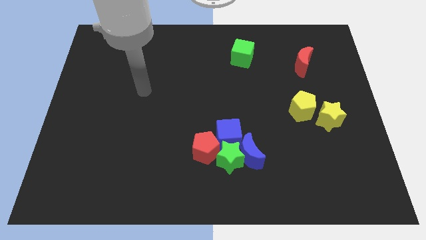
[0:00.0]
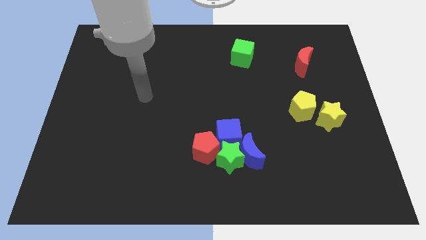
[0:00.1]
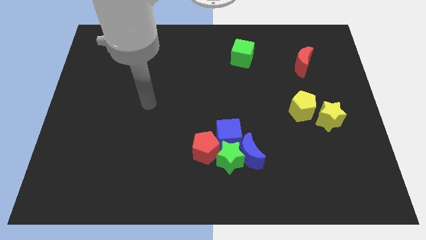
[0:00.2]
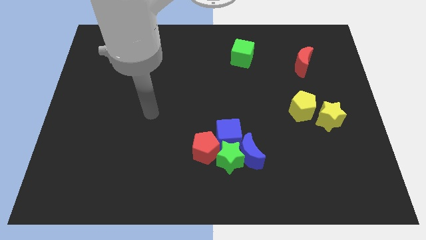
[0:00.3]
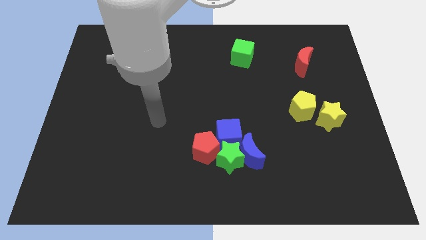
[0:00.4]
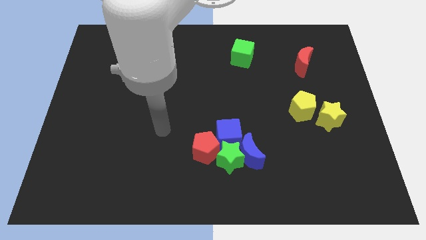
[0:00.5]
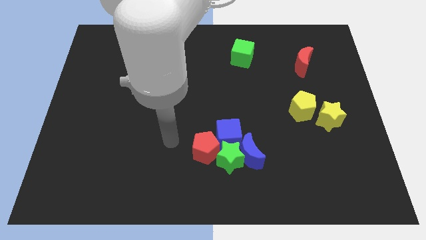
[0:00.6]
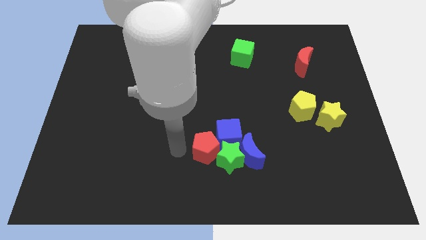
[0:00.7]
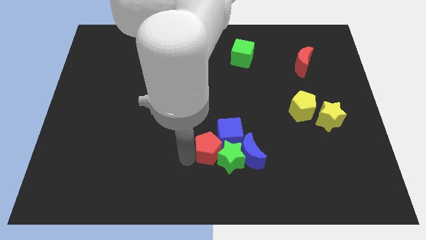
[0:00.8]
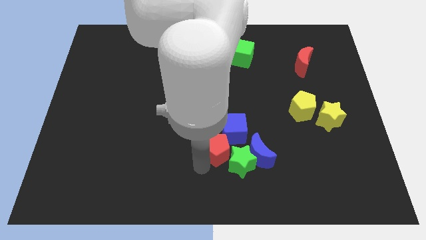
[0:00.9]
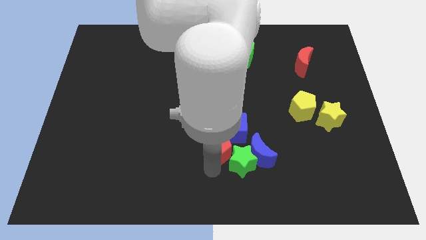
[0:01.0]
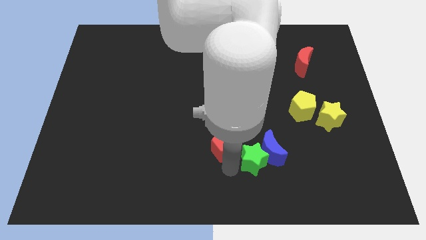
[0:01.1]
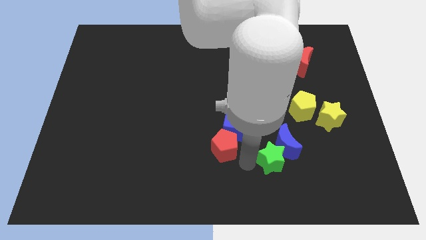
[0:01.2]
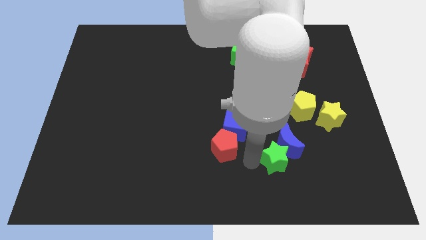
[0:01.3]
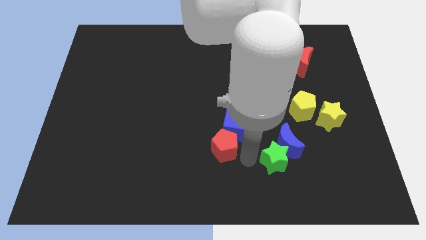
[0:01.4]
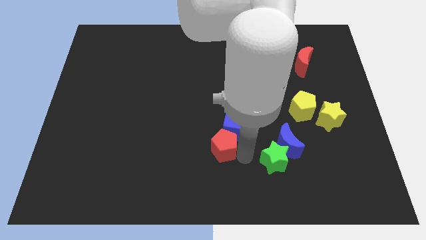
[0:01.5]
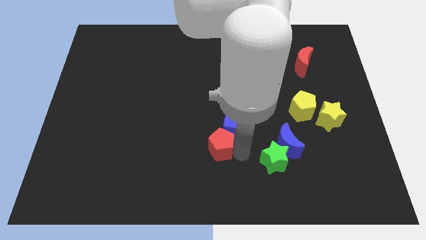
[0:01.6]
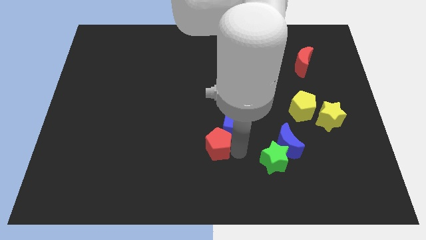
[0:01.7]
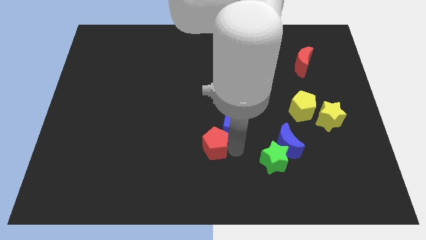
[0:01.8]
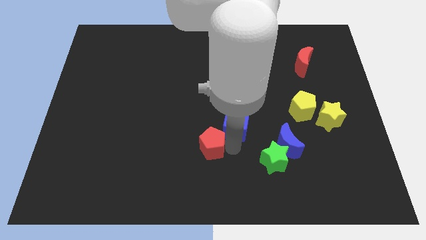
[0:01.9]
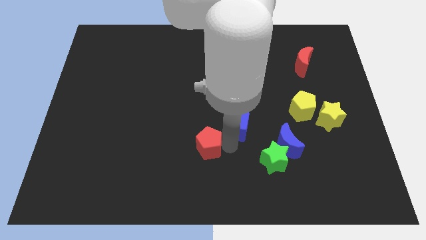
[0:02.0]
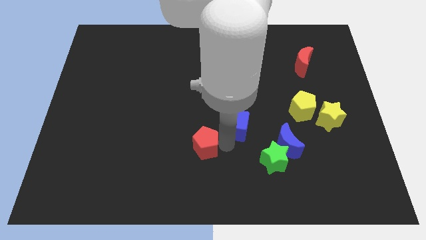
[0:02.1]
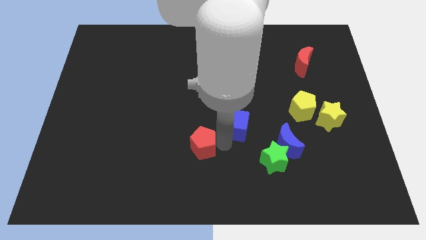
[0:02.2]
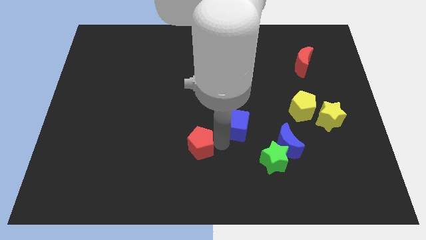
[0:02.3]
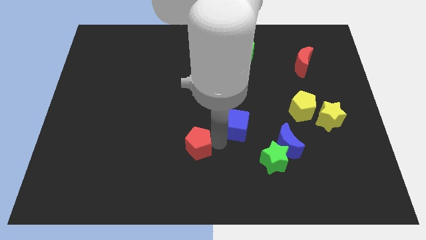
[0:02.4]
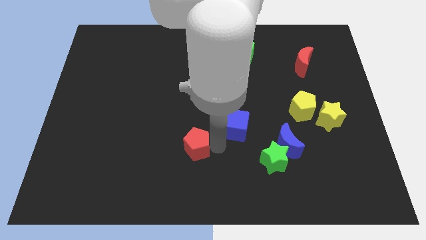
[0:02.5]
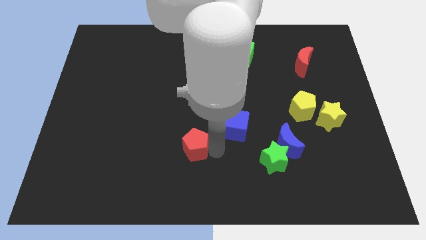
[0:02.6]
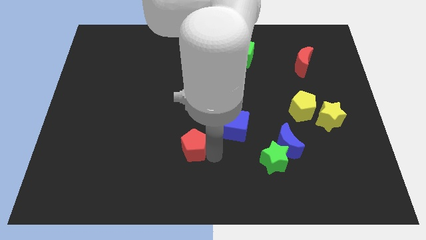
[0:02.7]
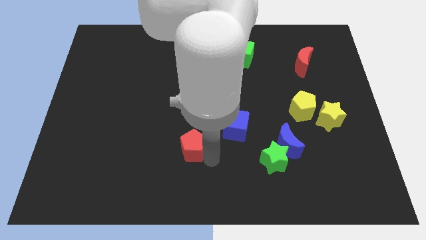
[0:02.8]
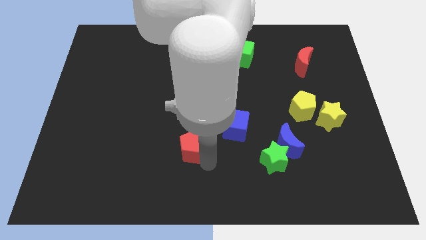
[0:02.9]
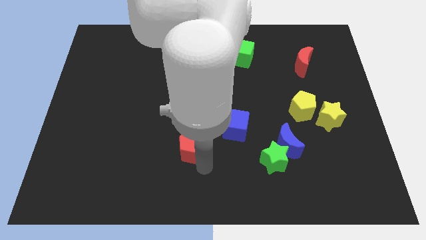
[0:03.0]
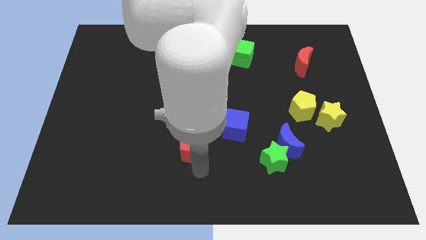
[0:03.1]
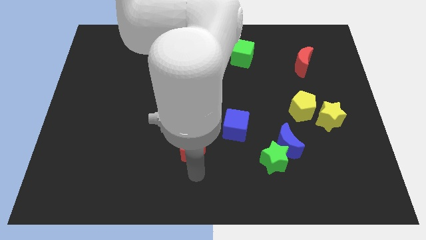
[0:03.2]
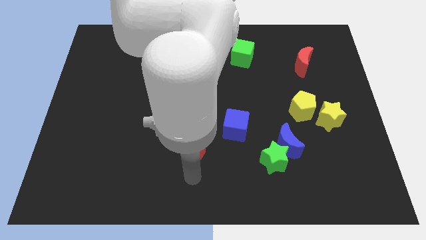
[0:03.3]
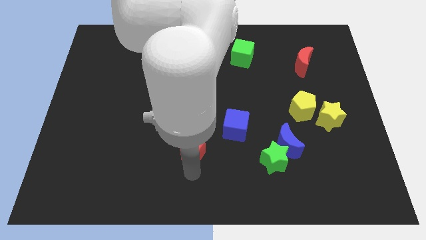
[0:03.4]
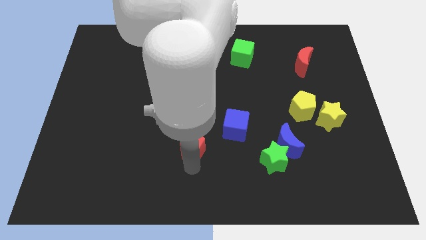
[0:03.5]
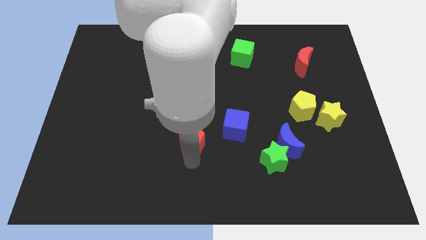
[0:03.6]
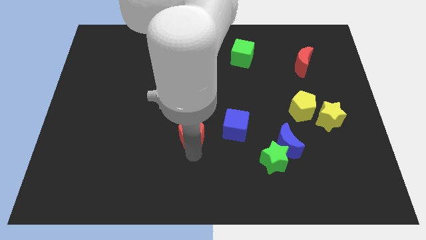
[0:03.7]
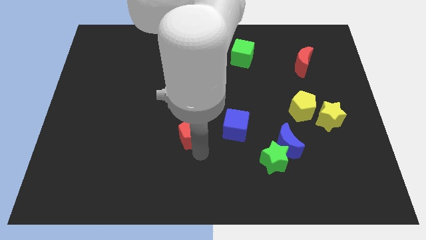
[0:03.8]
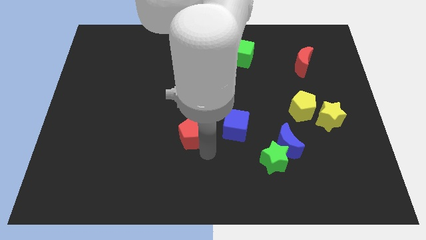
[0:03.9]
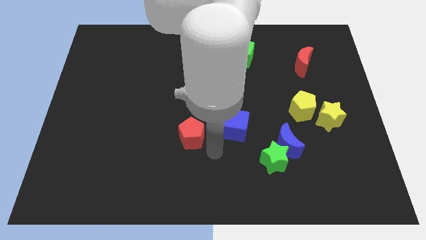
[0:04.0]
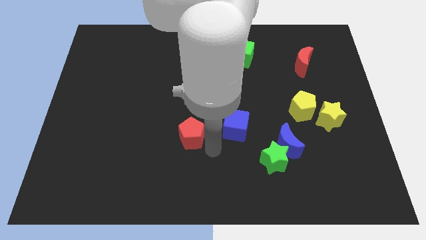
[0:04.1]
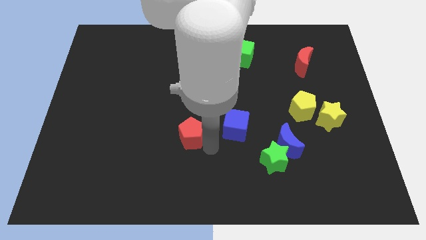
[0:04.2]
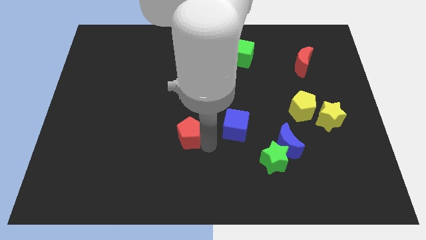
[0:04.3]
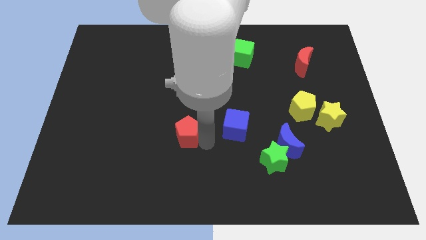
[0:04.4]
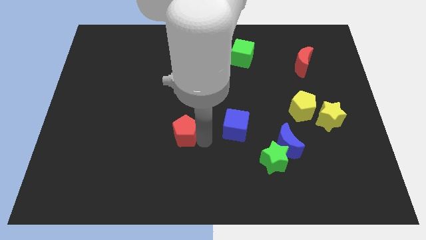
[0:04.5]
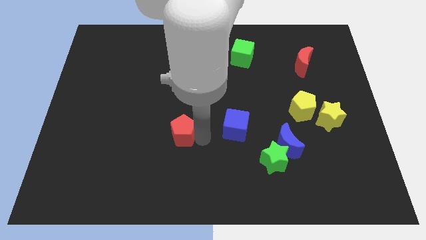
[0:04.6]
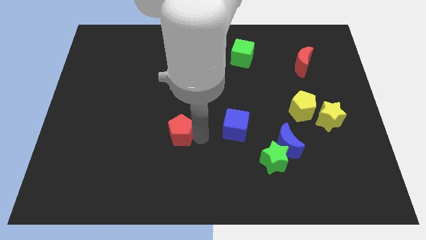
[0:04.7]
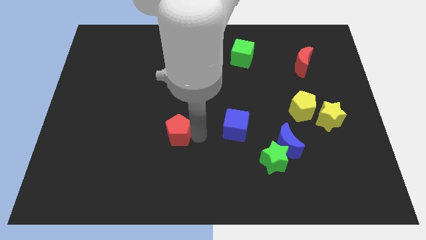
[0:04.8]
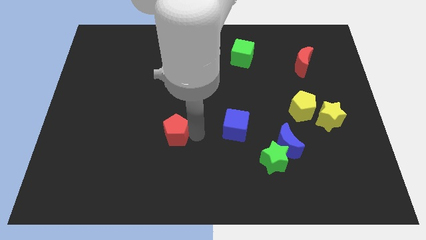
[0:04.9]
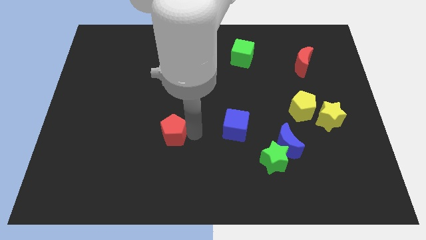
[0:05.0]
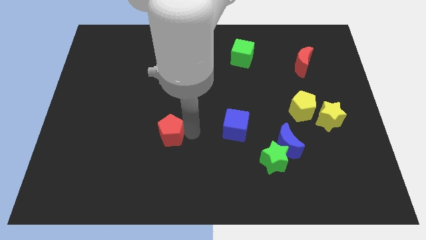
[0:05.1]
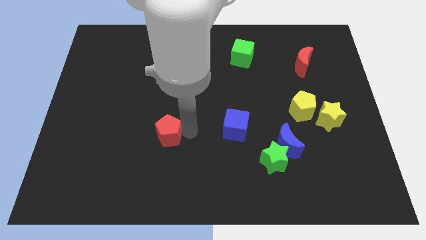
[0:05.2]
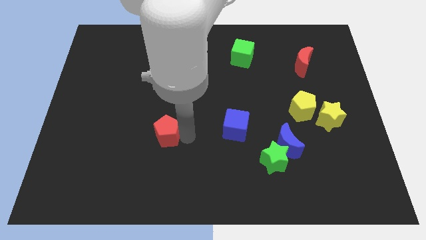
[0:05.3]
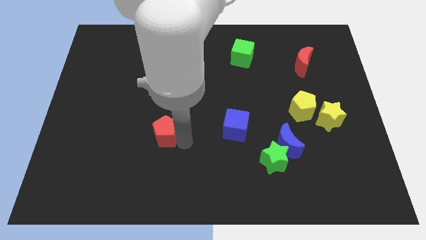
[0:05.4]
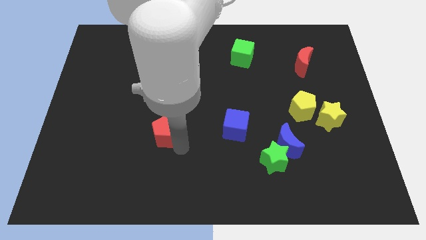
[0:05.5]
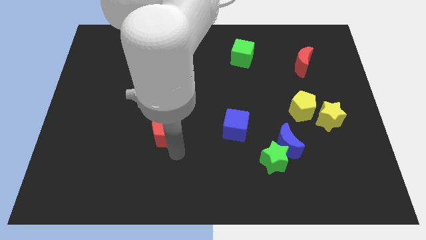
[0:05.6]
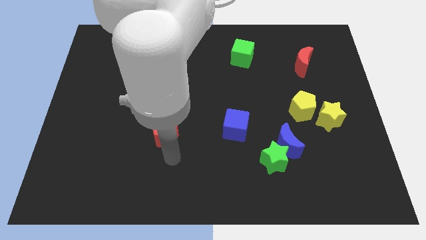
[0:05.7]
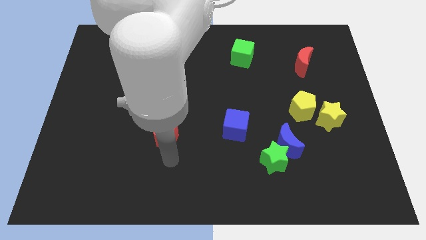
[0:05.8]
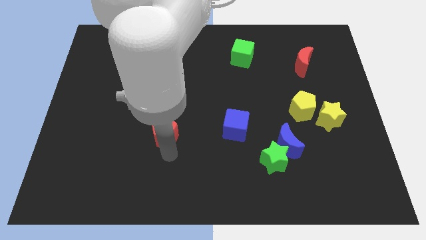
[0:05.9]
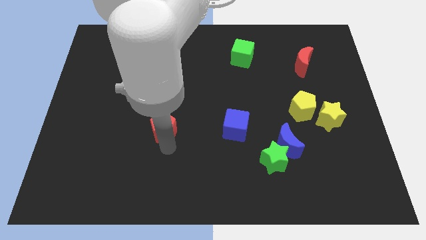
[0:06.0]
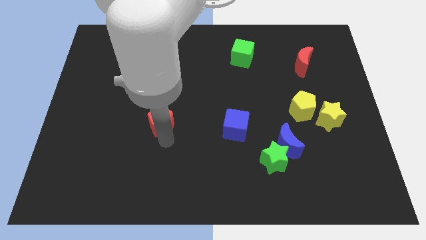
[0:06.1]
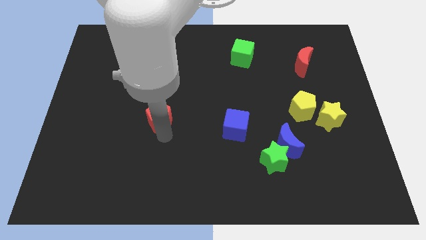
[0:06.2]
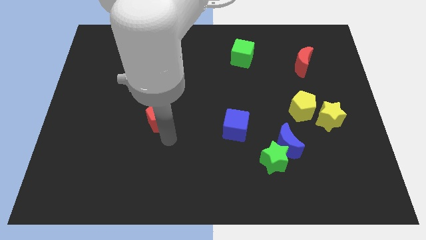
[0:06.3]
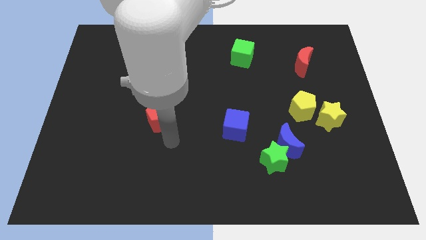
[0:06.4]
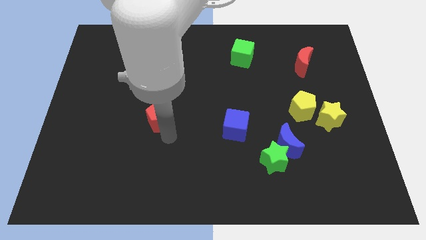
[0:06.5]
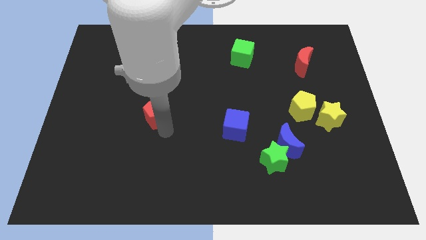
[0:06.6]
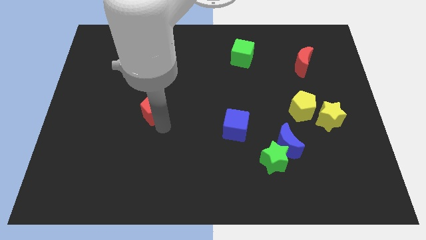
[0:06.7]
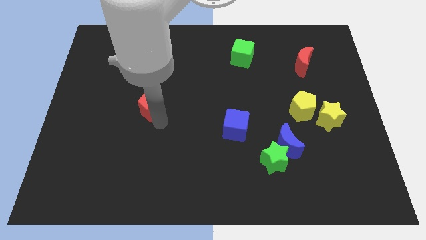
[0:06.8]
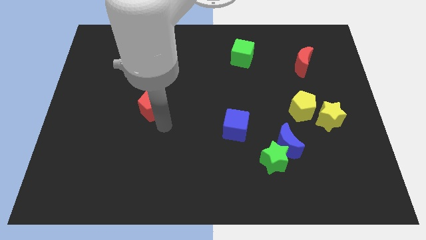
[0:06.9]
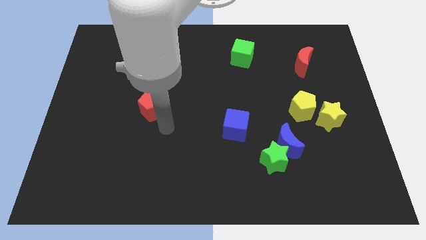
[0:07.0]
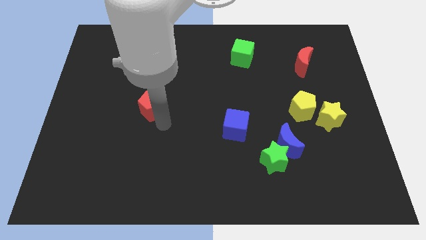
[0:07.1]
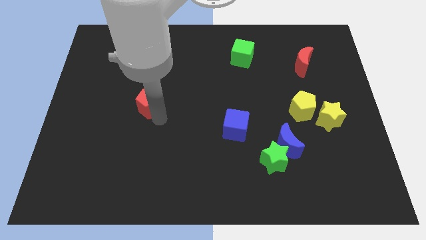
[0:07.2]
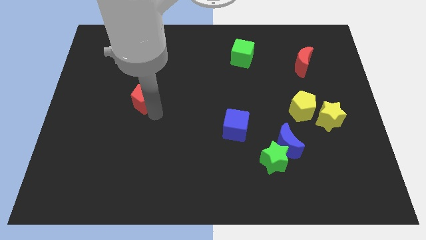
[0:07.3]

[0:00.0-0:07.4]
push the red pentagon upwards and to the left diagonally

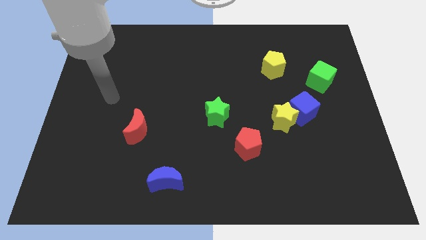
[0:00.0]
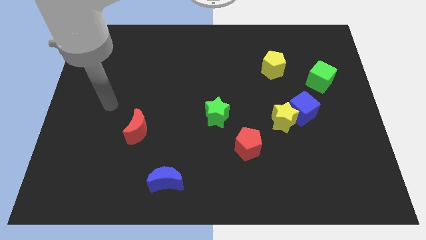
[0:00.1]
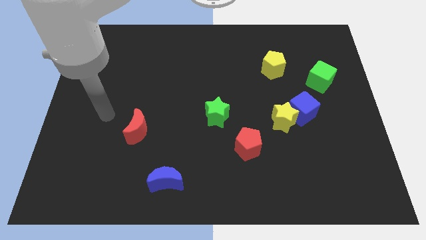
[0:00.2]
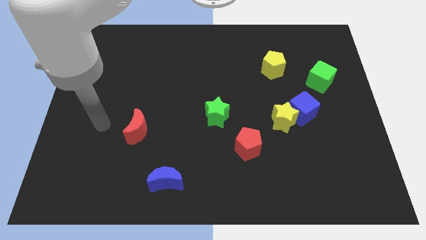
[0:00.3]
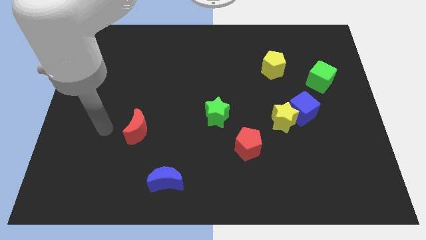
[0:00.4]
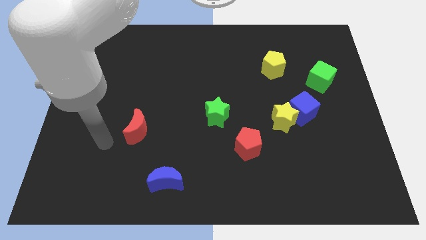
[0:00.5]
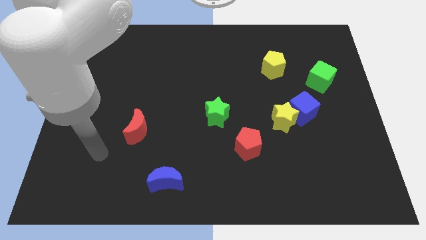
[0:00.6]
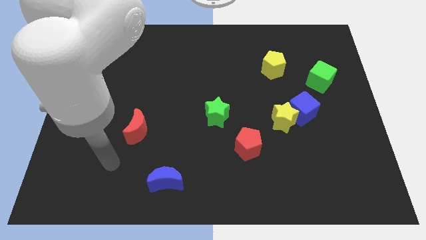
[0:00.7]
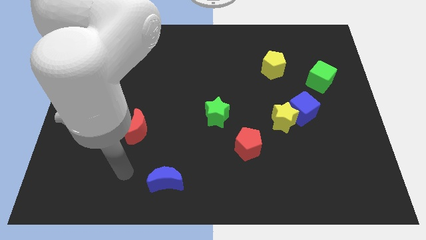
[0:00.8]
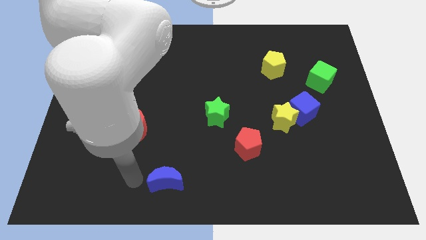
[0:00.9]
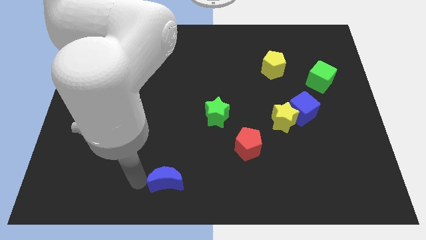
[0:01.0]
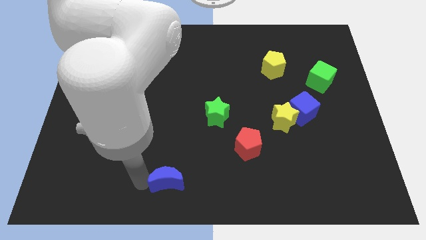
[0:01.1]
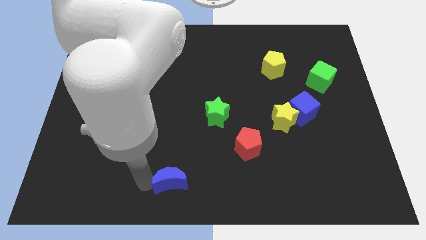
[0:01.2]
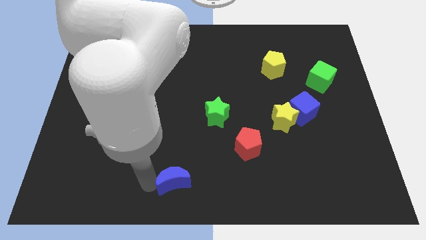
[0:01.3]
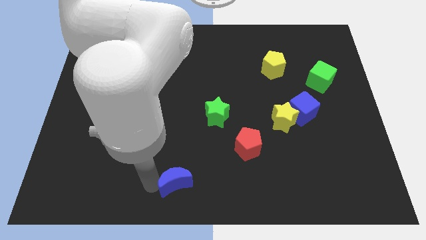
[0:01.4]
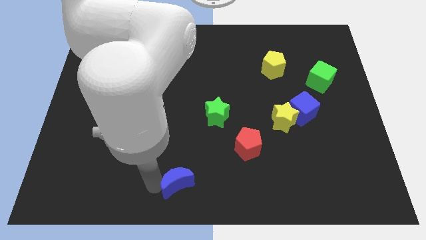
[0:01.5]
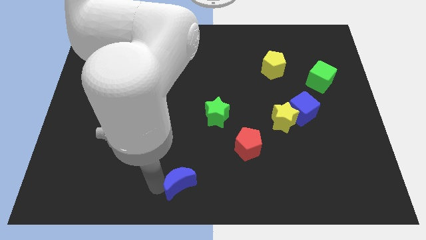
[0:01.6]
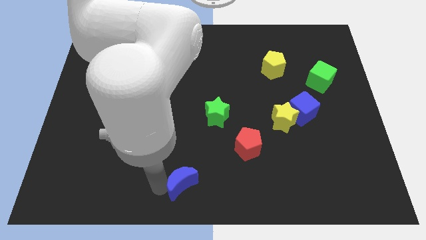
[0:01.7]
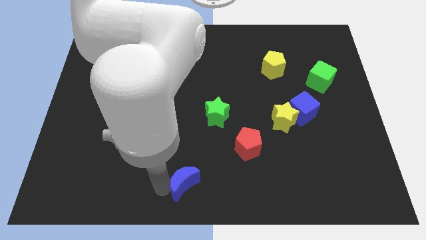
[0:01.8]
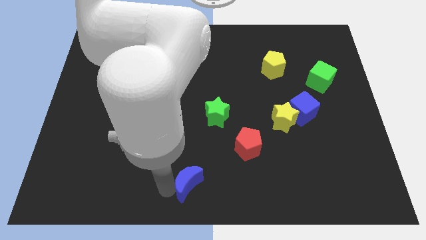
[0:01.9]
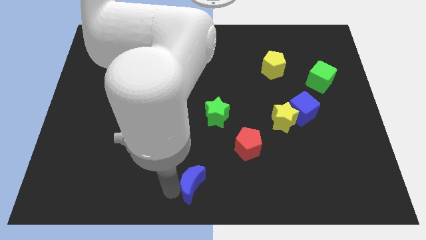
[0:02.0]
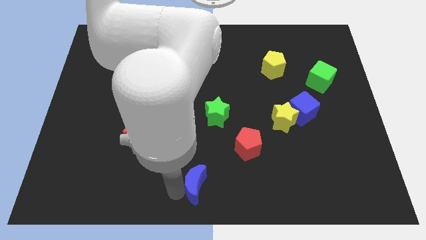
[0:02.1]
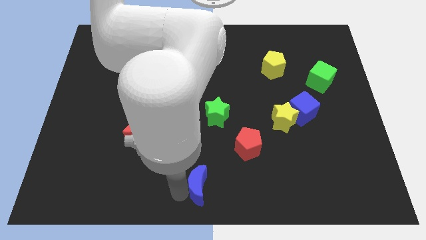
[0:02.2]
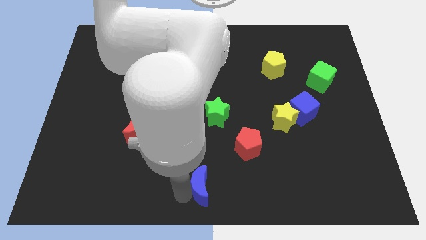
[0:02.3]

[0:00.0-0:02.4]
move the blue moon right a little bit
